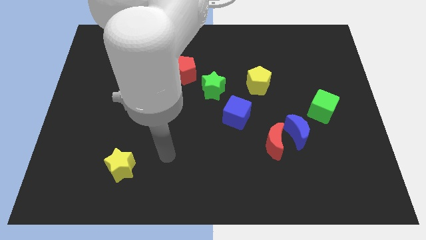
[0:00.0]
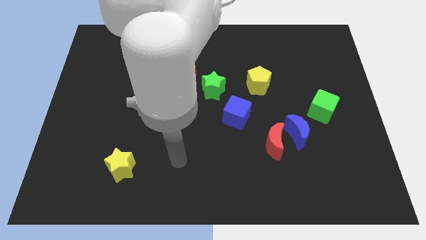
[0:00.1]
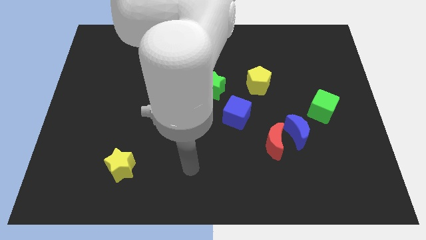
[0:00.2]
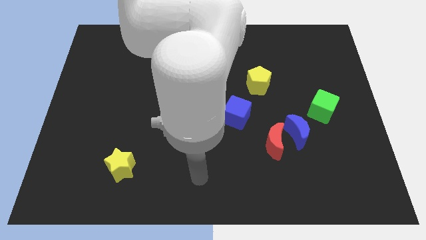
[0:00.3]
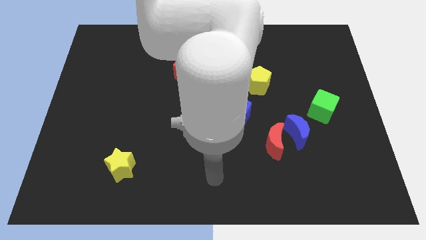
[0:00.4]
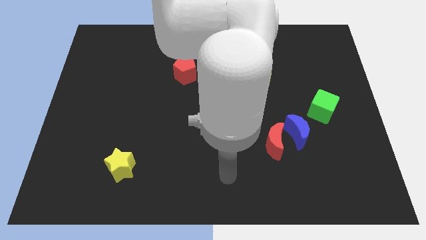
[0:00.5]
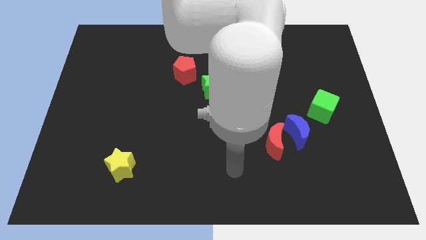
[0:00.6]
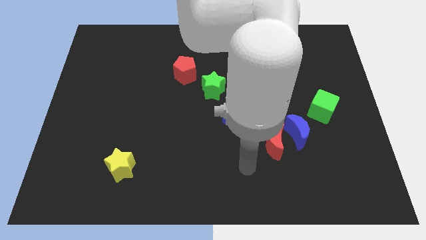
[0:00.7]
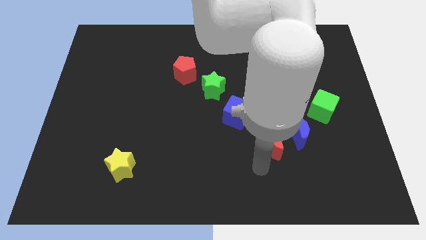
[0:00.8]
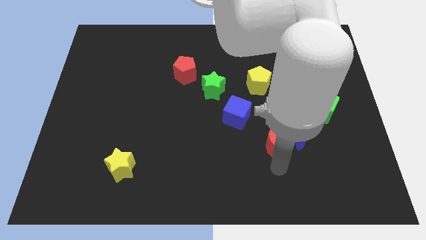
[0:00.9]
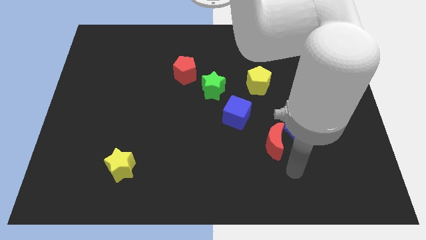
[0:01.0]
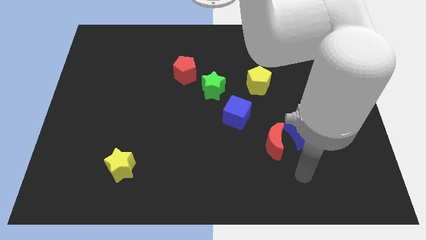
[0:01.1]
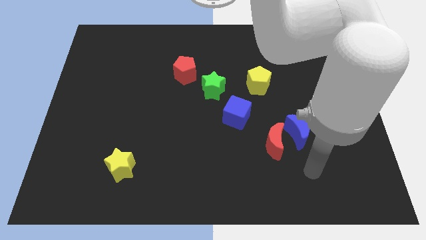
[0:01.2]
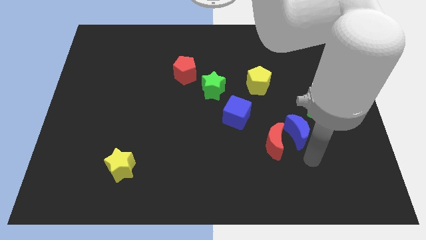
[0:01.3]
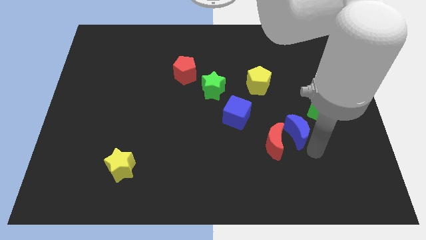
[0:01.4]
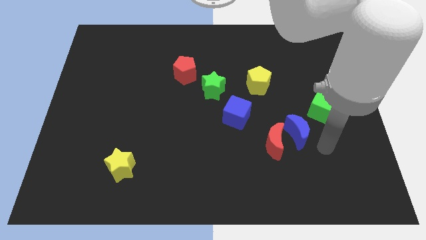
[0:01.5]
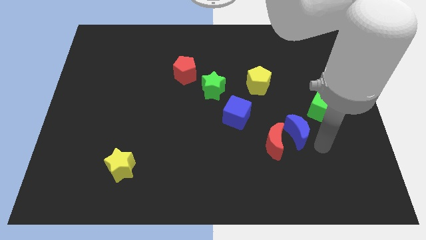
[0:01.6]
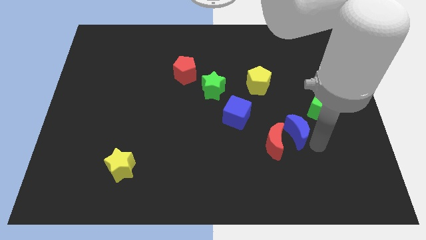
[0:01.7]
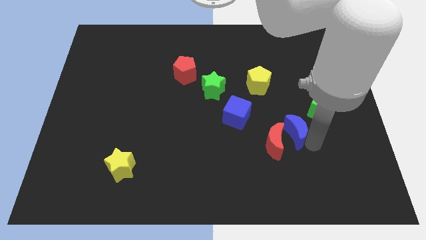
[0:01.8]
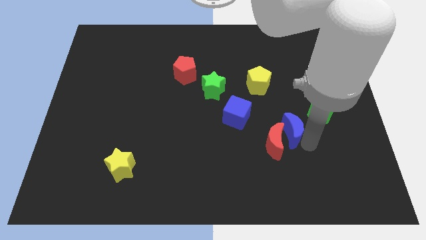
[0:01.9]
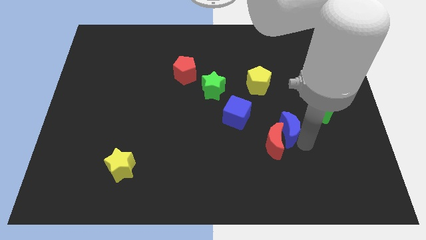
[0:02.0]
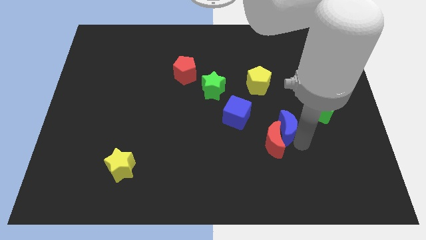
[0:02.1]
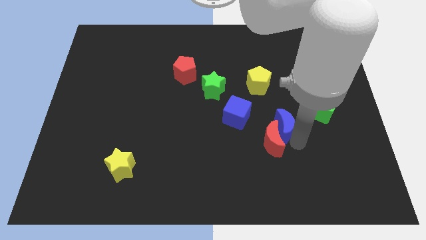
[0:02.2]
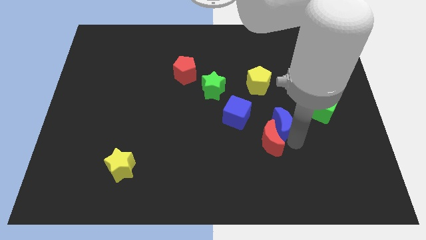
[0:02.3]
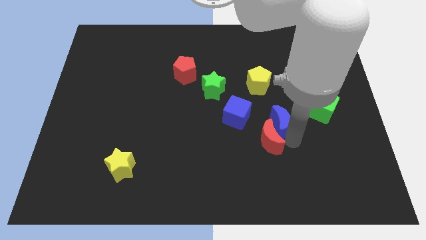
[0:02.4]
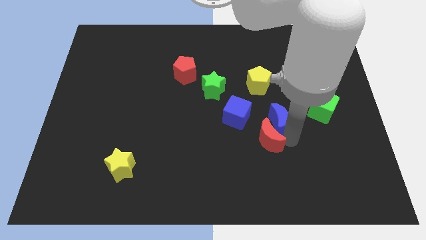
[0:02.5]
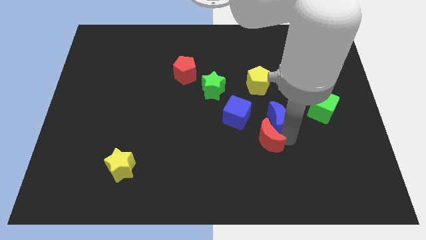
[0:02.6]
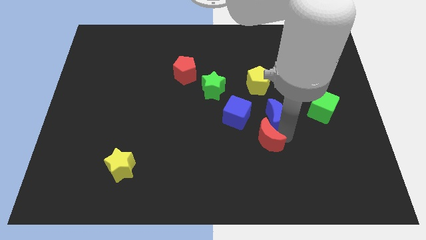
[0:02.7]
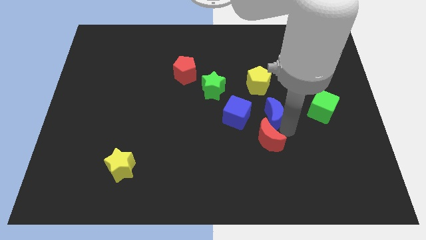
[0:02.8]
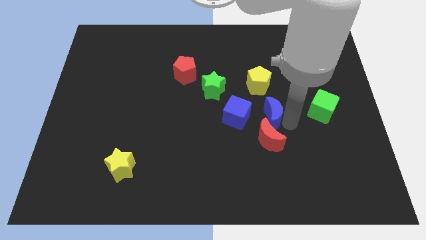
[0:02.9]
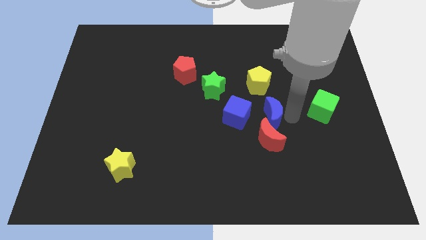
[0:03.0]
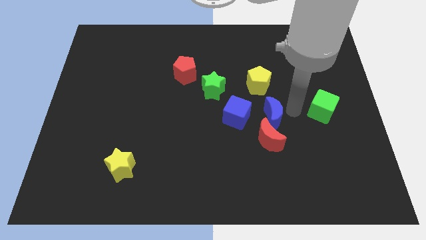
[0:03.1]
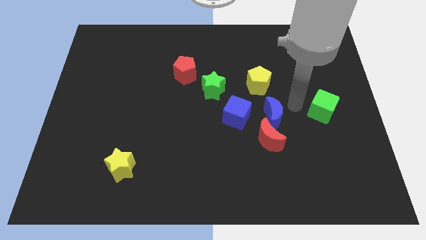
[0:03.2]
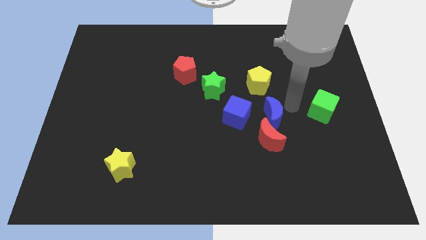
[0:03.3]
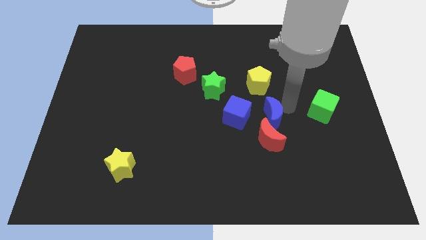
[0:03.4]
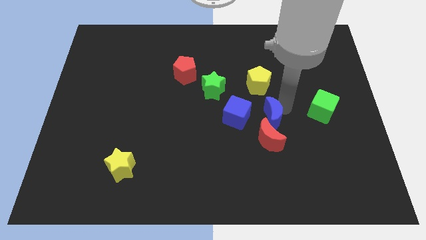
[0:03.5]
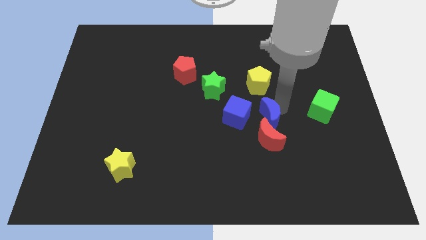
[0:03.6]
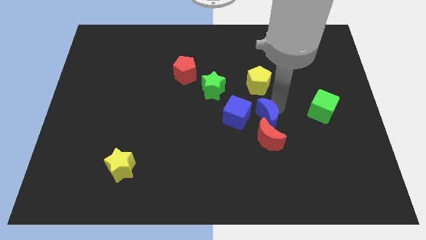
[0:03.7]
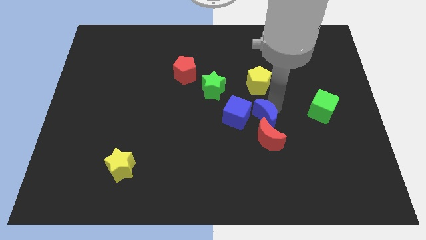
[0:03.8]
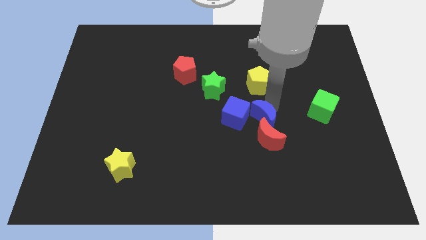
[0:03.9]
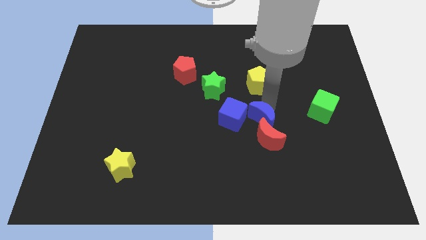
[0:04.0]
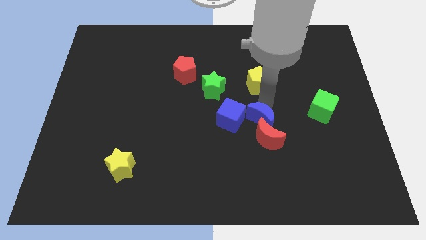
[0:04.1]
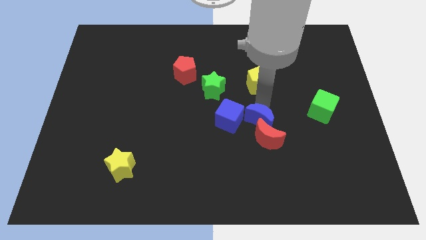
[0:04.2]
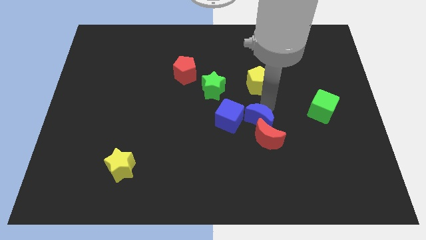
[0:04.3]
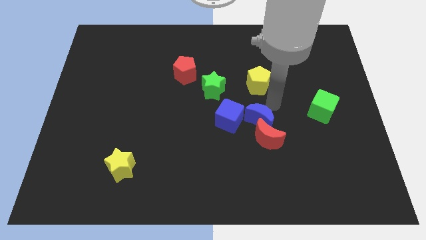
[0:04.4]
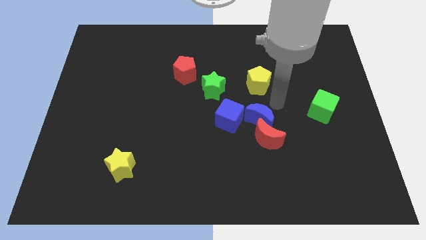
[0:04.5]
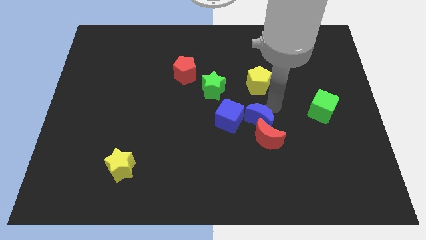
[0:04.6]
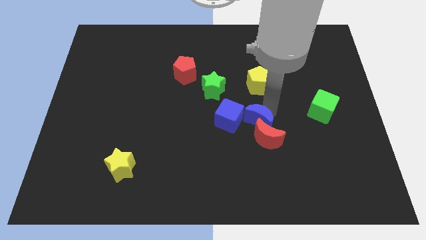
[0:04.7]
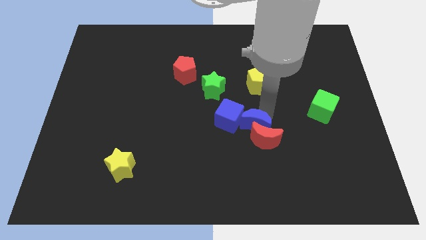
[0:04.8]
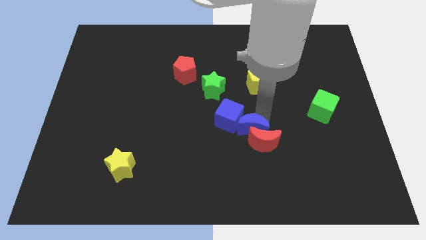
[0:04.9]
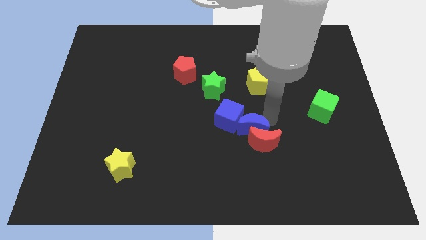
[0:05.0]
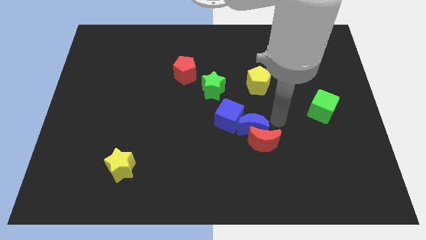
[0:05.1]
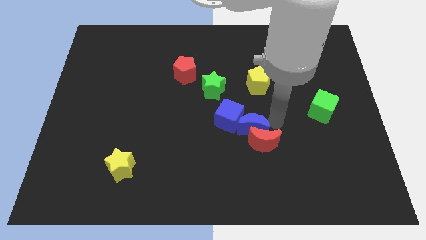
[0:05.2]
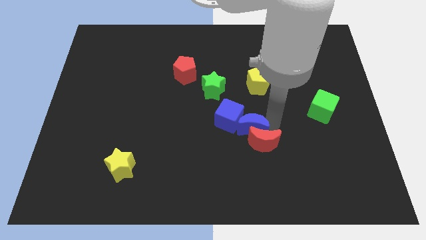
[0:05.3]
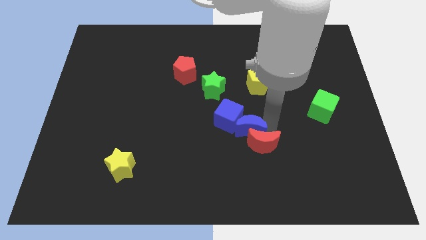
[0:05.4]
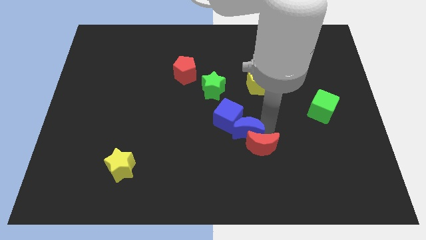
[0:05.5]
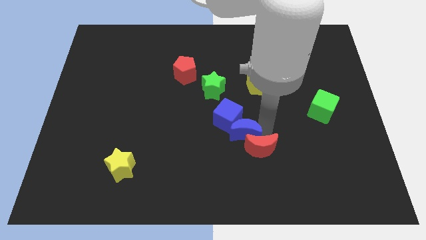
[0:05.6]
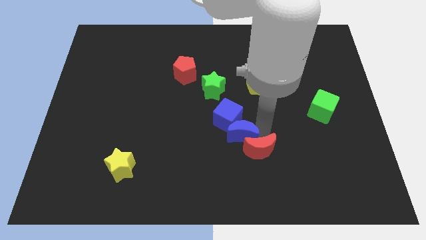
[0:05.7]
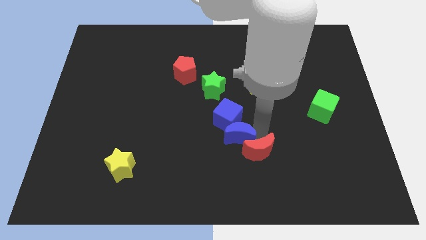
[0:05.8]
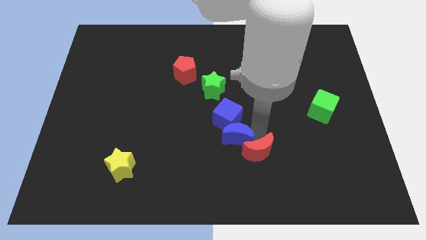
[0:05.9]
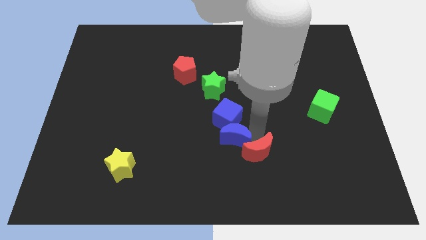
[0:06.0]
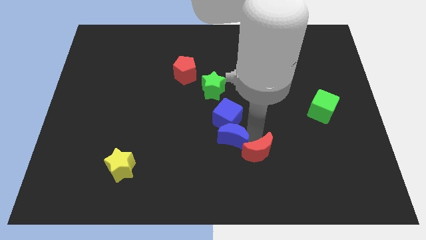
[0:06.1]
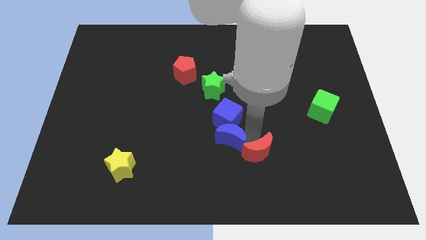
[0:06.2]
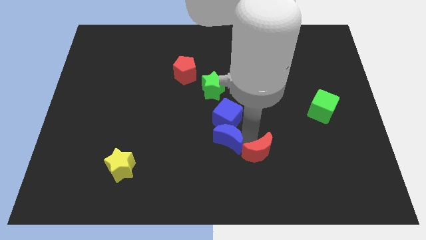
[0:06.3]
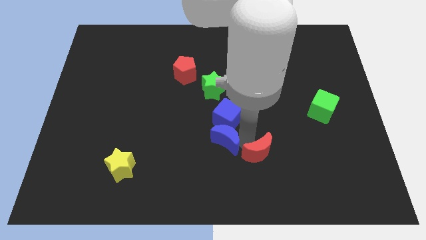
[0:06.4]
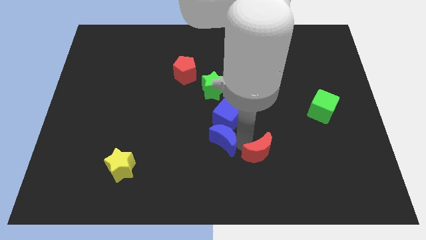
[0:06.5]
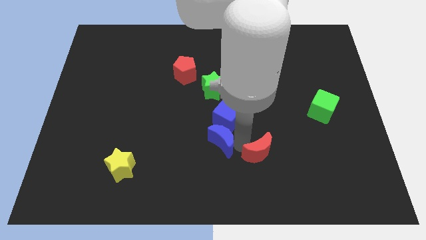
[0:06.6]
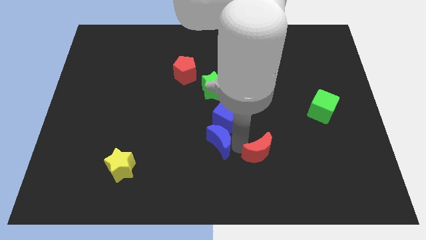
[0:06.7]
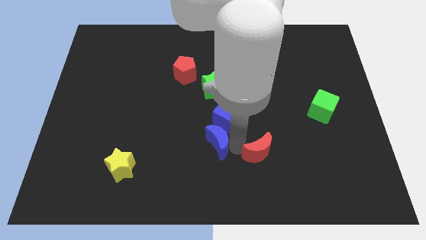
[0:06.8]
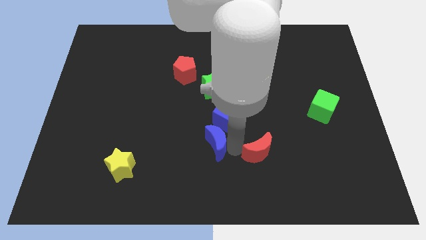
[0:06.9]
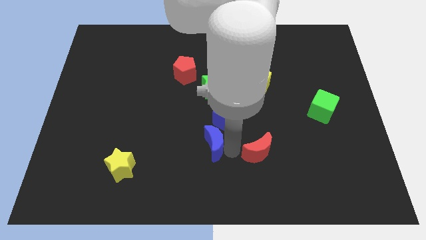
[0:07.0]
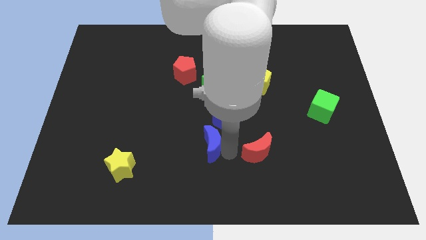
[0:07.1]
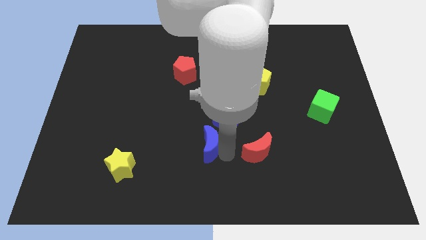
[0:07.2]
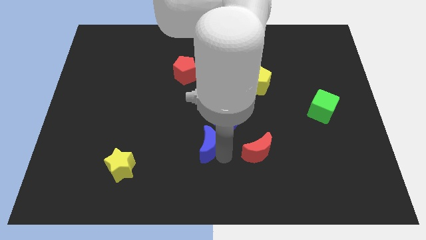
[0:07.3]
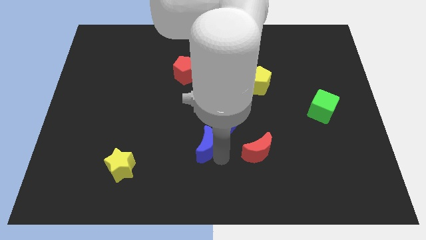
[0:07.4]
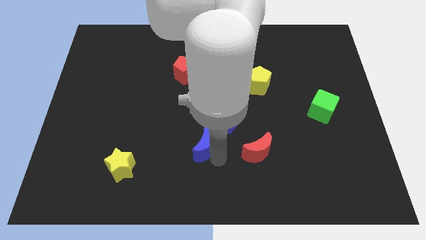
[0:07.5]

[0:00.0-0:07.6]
move the blue moon to the left
